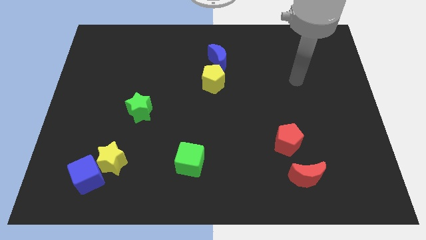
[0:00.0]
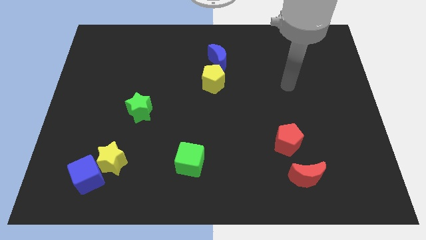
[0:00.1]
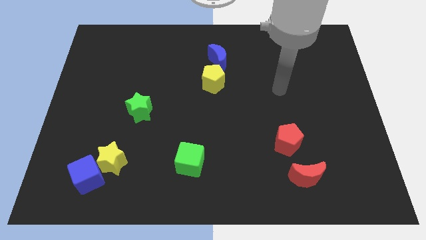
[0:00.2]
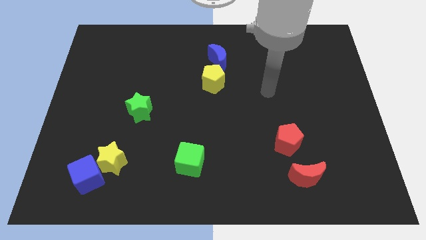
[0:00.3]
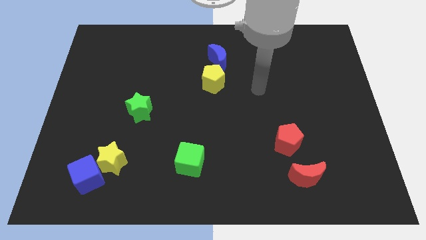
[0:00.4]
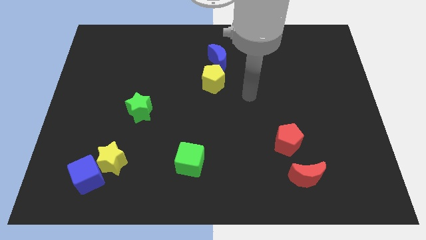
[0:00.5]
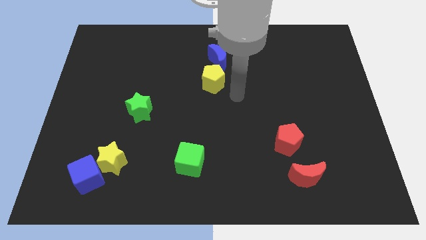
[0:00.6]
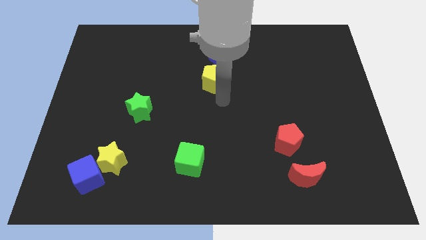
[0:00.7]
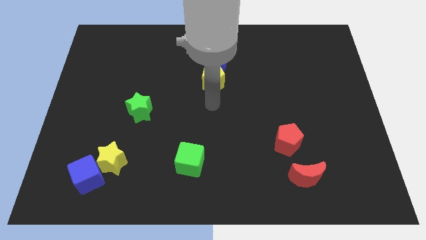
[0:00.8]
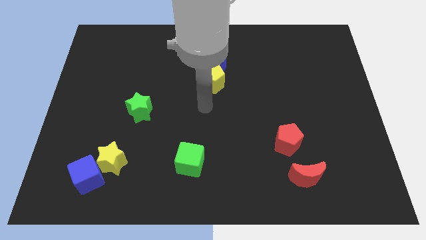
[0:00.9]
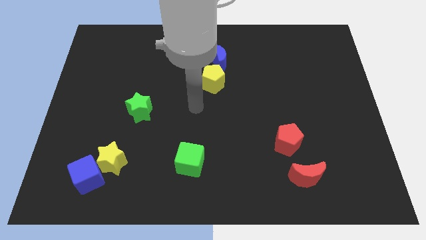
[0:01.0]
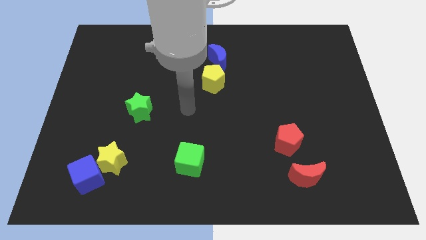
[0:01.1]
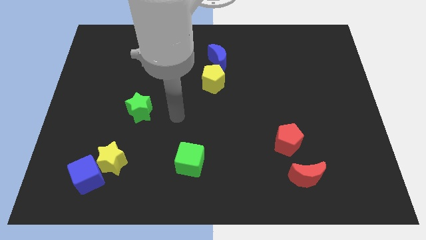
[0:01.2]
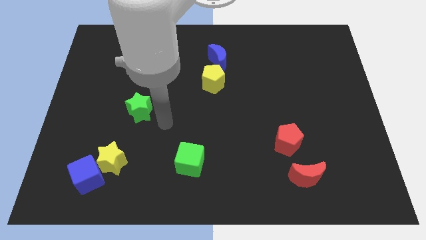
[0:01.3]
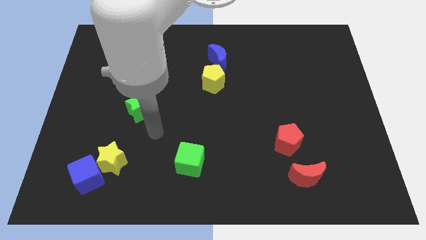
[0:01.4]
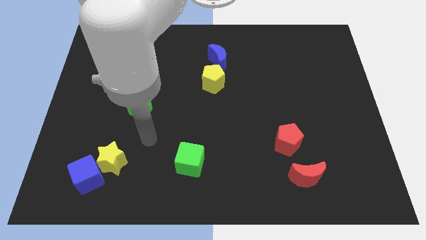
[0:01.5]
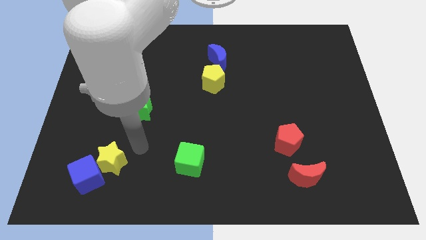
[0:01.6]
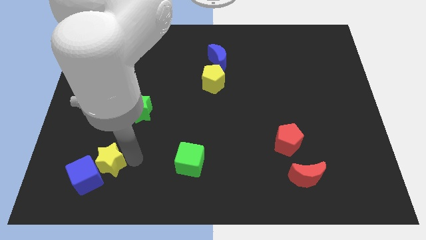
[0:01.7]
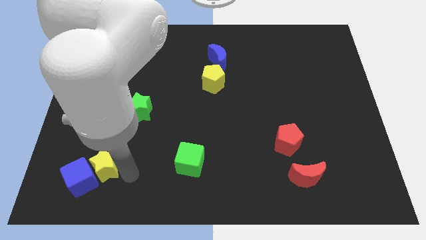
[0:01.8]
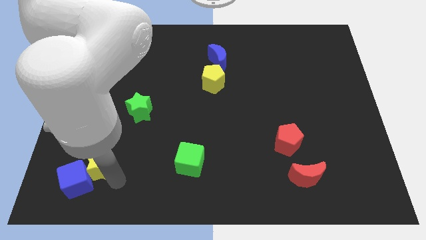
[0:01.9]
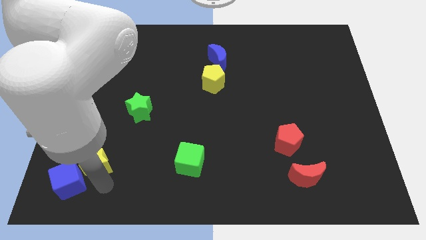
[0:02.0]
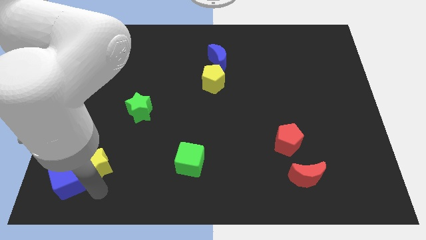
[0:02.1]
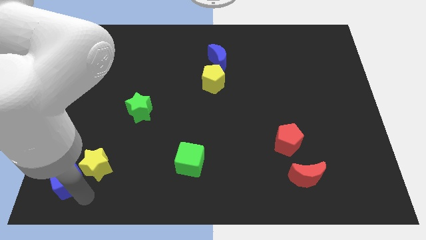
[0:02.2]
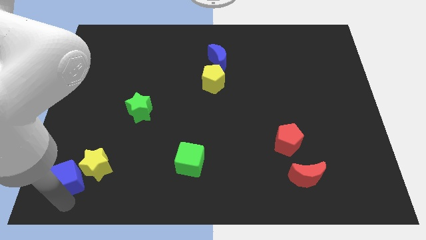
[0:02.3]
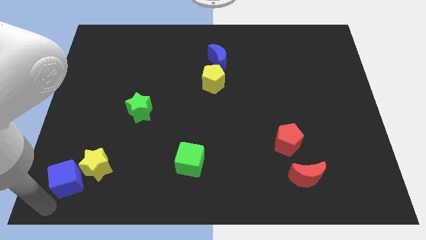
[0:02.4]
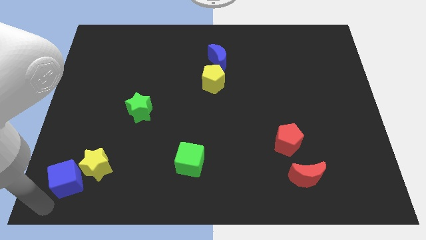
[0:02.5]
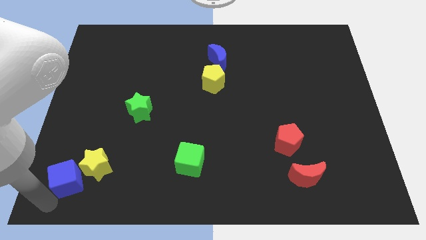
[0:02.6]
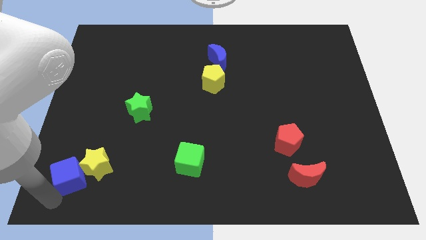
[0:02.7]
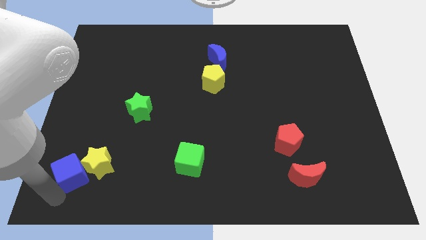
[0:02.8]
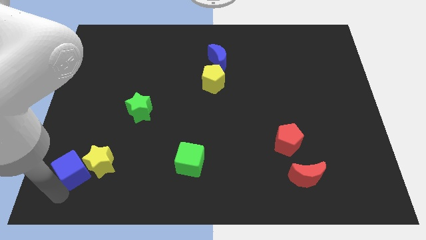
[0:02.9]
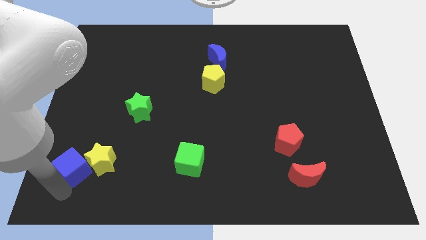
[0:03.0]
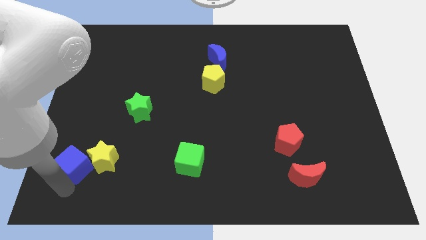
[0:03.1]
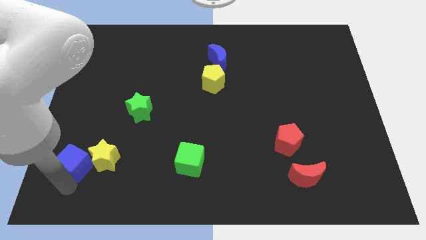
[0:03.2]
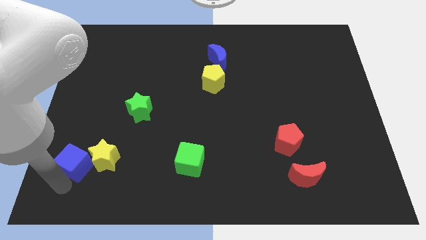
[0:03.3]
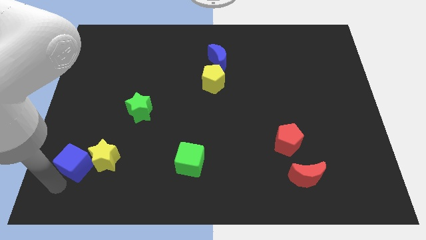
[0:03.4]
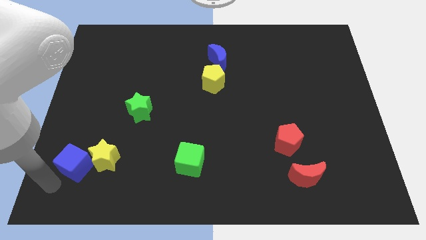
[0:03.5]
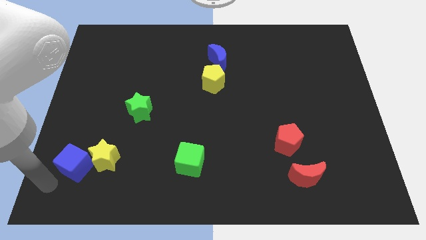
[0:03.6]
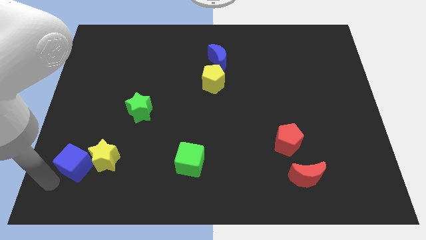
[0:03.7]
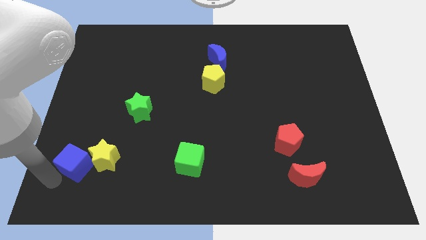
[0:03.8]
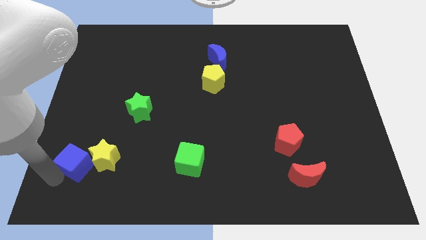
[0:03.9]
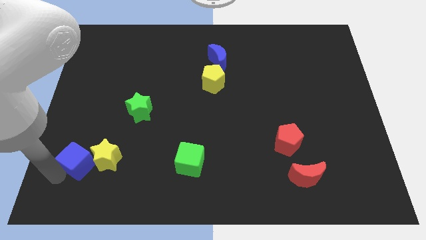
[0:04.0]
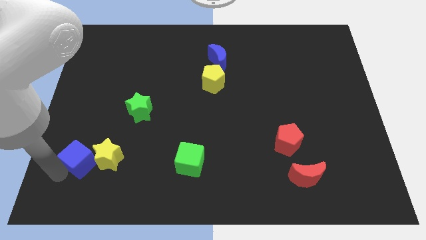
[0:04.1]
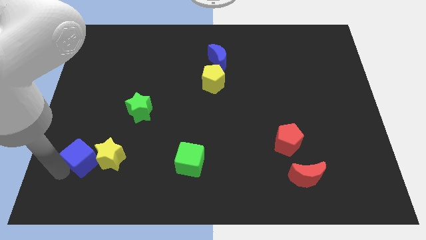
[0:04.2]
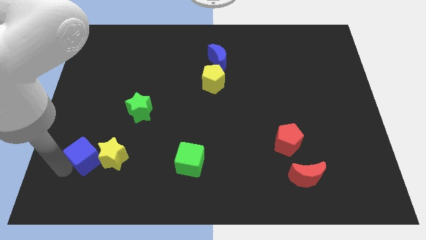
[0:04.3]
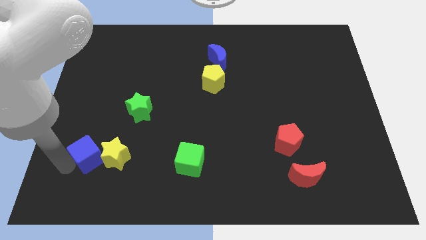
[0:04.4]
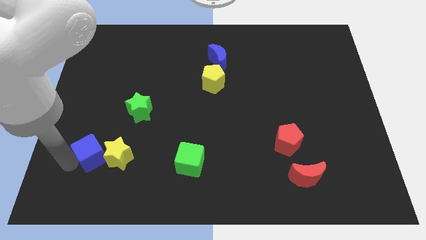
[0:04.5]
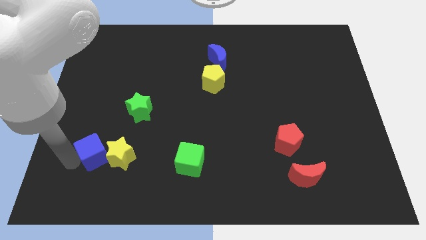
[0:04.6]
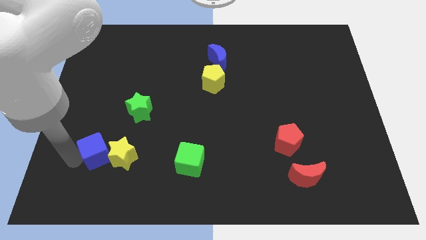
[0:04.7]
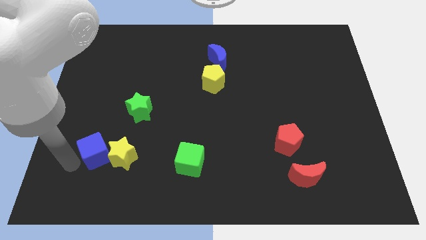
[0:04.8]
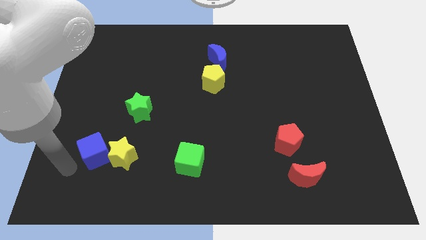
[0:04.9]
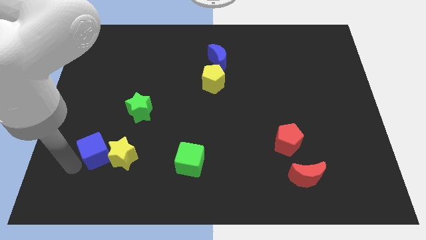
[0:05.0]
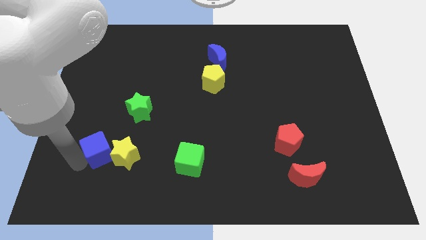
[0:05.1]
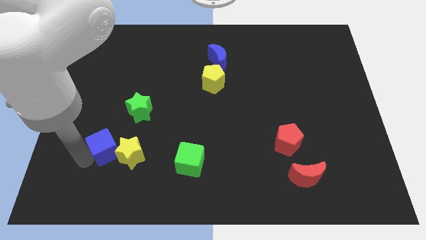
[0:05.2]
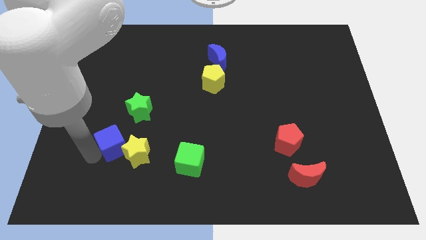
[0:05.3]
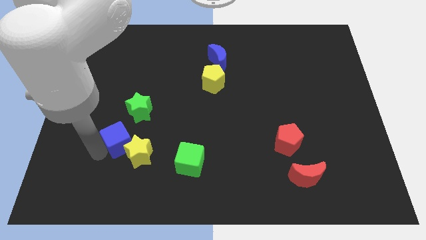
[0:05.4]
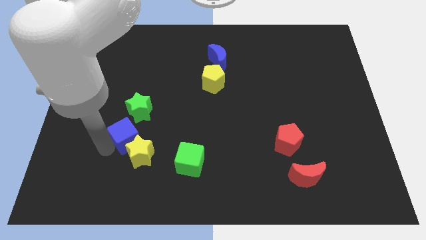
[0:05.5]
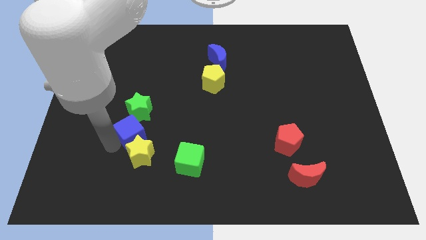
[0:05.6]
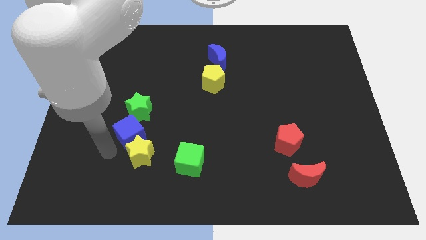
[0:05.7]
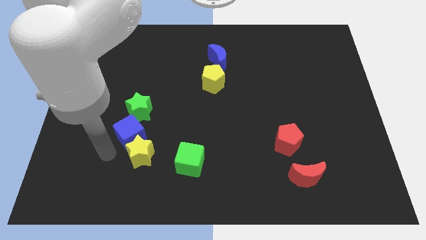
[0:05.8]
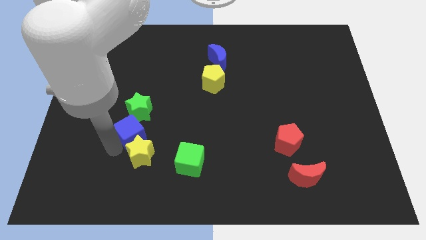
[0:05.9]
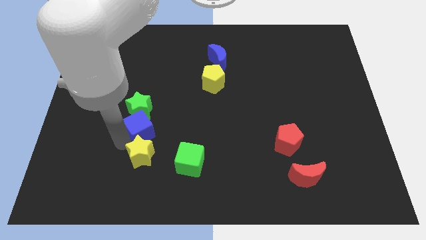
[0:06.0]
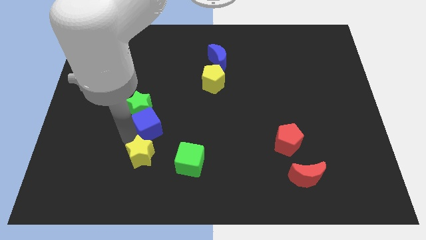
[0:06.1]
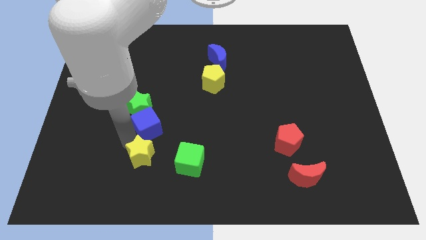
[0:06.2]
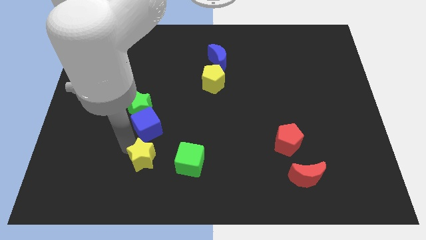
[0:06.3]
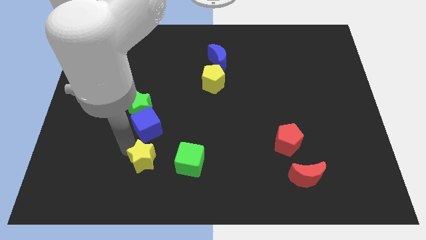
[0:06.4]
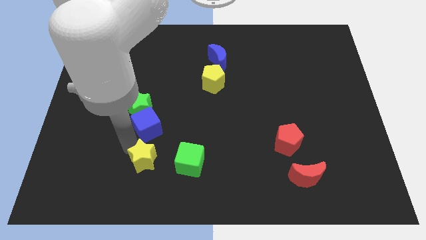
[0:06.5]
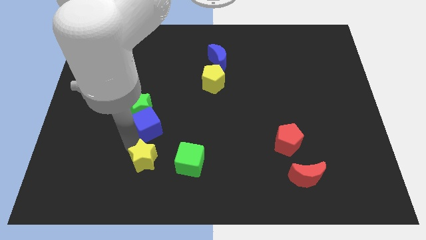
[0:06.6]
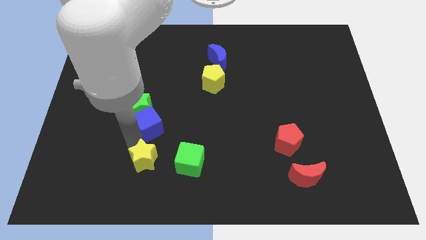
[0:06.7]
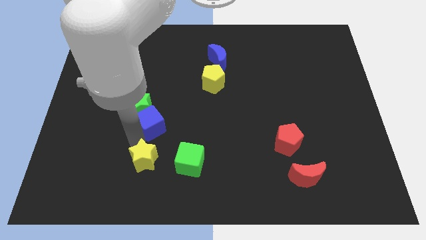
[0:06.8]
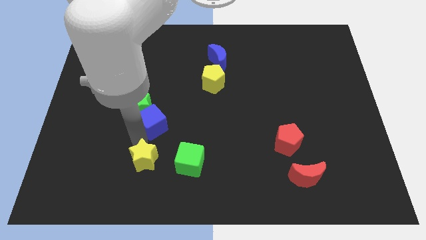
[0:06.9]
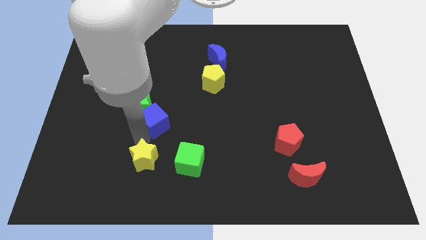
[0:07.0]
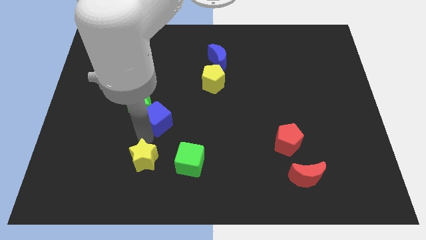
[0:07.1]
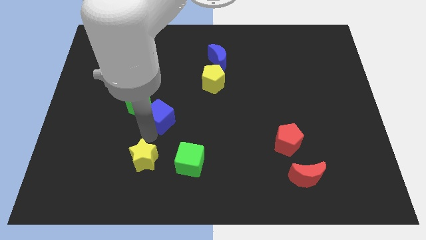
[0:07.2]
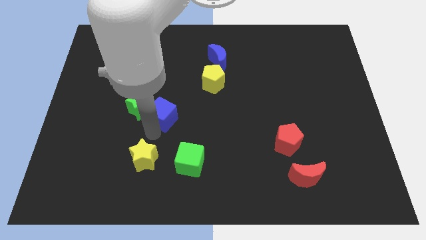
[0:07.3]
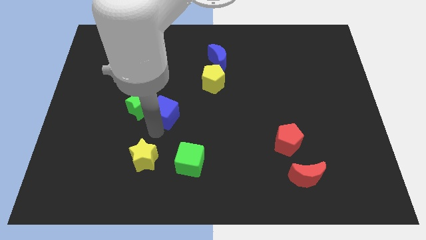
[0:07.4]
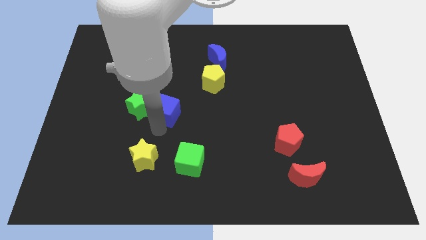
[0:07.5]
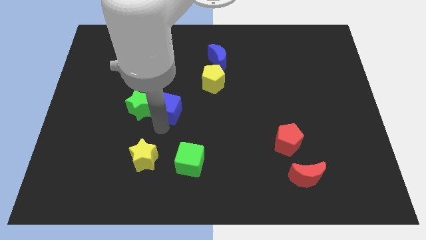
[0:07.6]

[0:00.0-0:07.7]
slide the blue cube diagonally up and to the right of the green star
